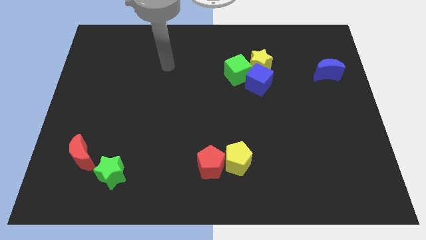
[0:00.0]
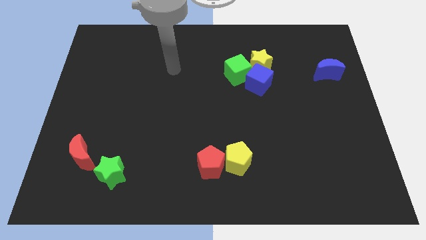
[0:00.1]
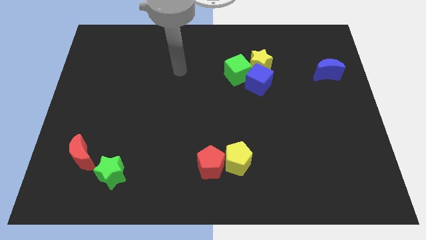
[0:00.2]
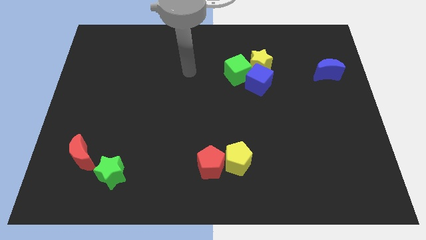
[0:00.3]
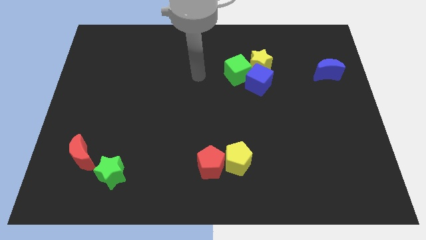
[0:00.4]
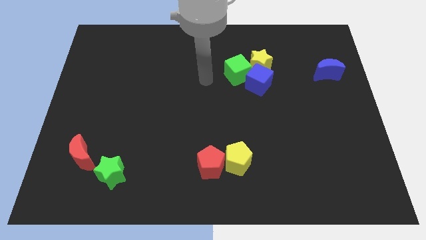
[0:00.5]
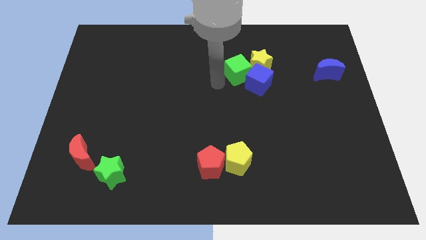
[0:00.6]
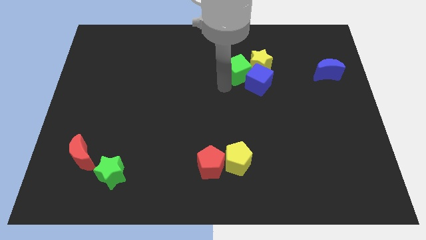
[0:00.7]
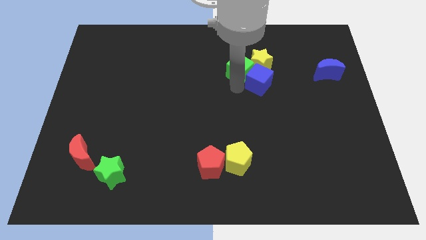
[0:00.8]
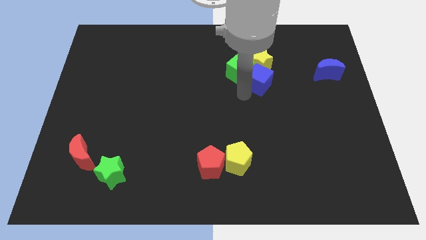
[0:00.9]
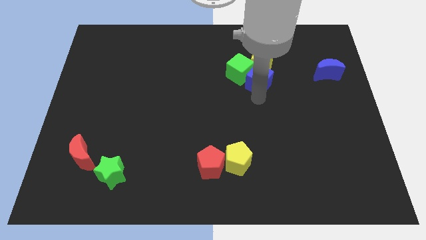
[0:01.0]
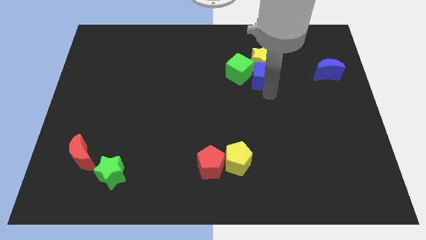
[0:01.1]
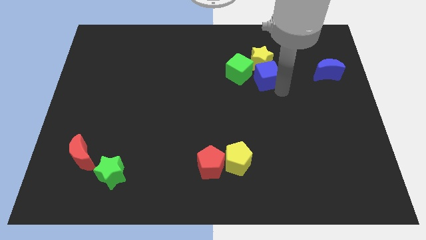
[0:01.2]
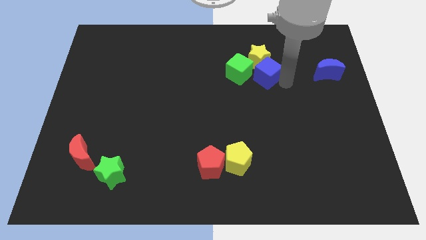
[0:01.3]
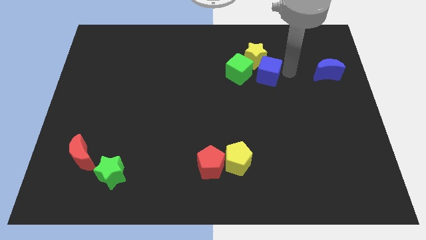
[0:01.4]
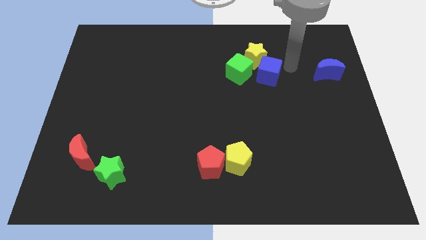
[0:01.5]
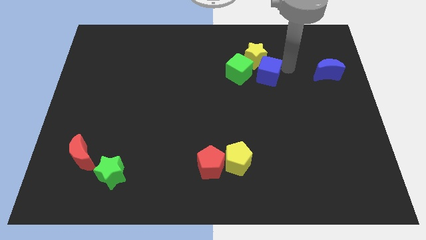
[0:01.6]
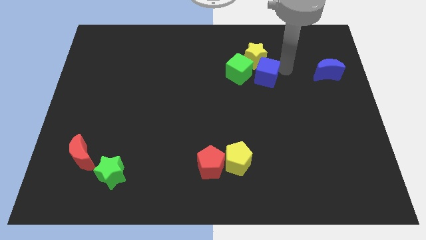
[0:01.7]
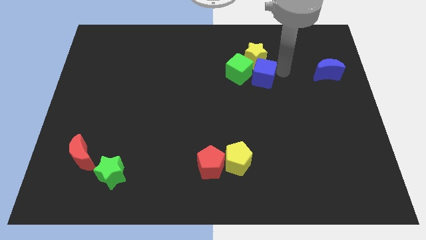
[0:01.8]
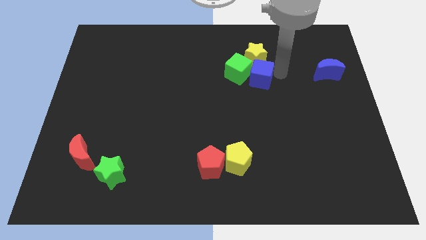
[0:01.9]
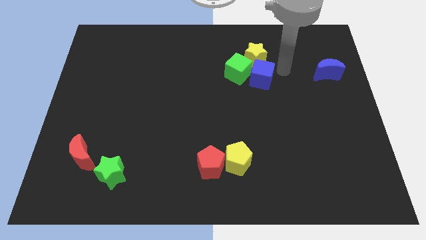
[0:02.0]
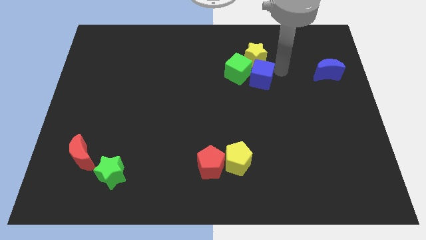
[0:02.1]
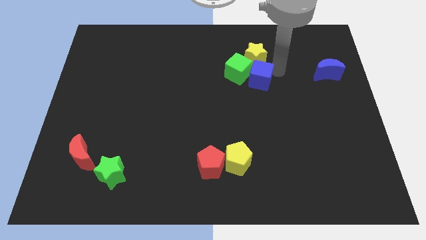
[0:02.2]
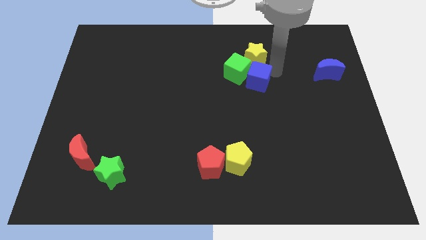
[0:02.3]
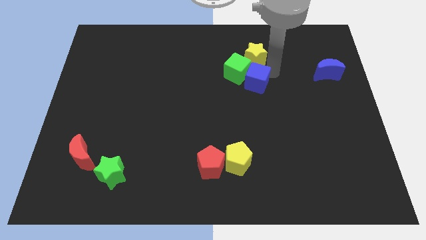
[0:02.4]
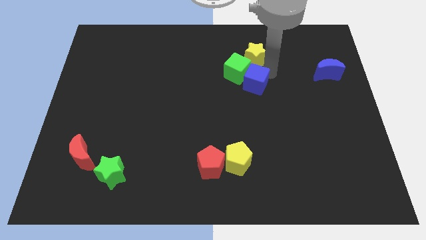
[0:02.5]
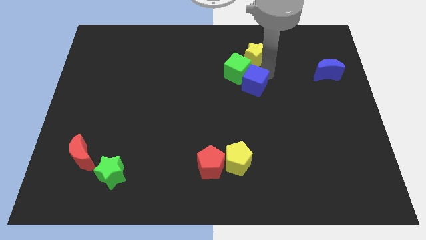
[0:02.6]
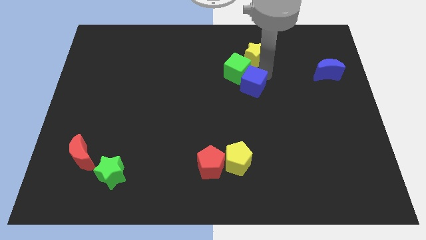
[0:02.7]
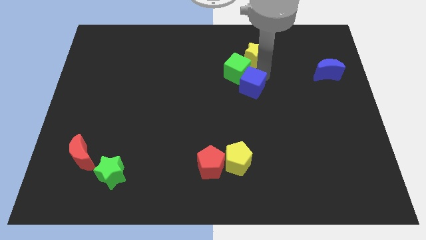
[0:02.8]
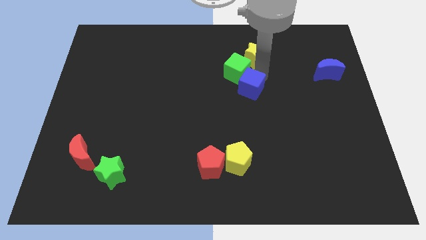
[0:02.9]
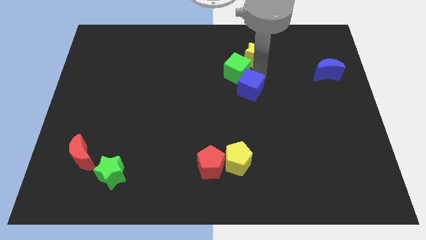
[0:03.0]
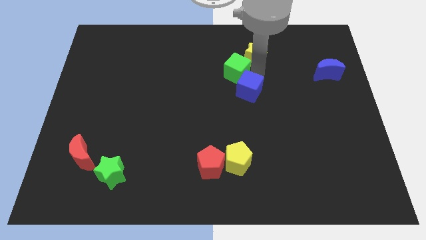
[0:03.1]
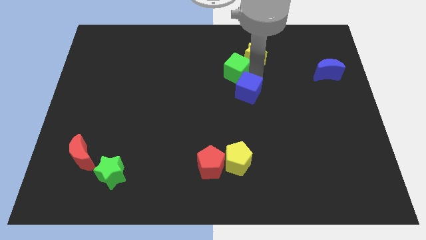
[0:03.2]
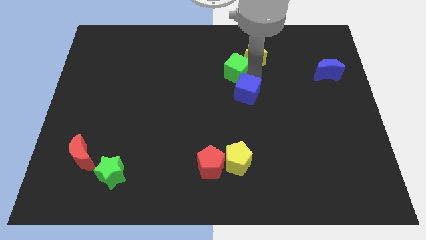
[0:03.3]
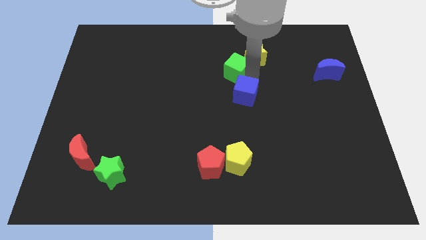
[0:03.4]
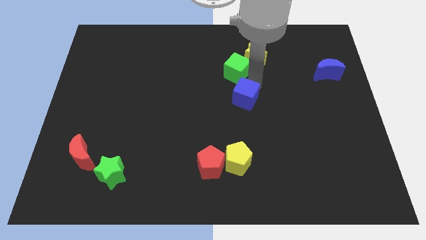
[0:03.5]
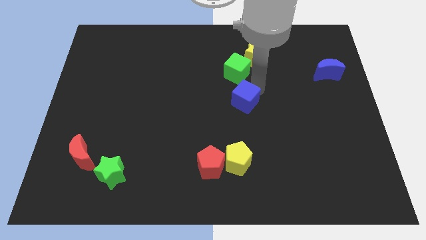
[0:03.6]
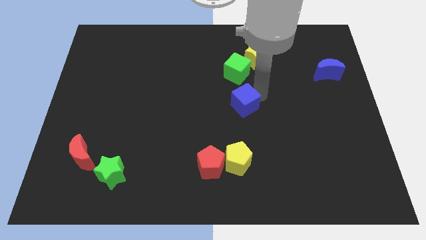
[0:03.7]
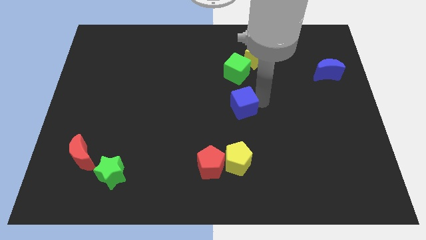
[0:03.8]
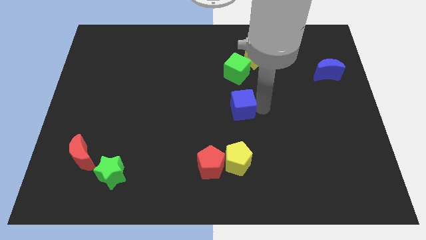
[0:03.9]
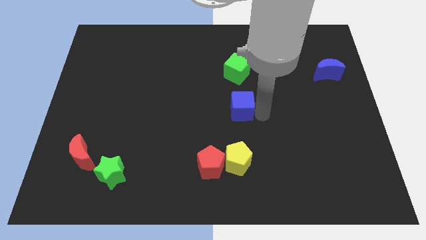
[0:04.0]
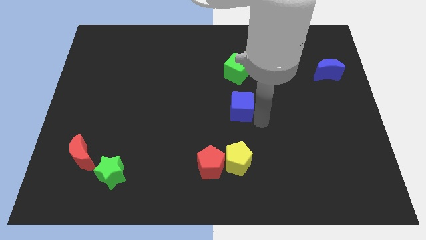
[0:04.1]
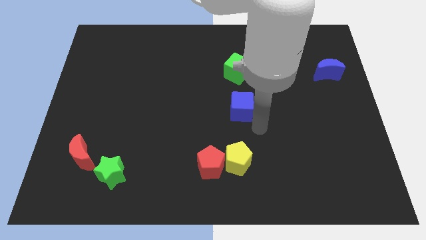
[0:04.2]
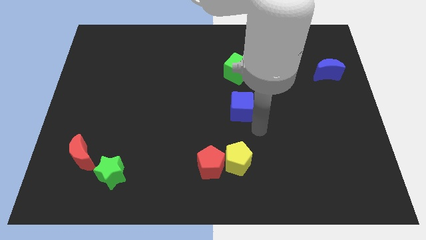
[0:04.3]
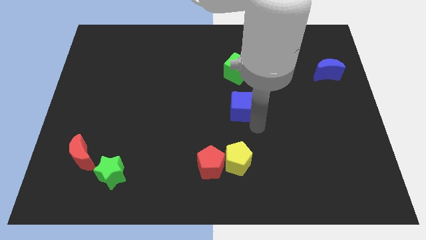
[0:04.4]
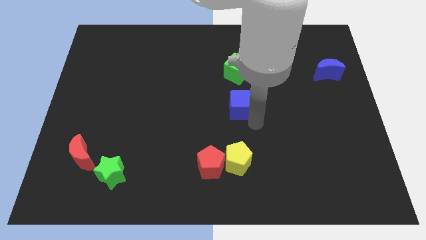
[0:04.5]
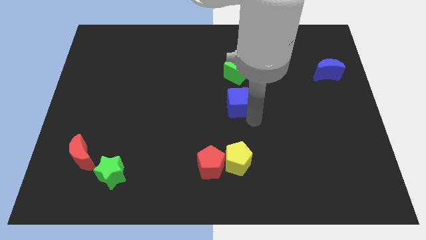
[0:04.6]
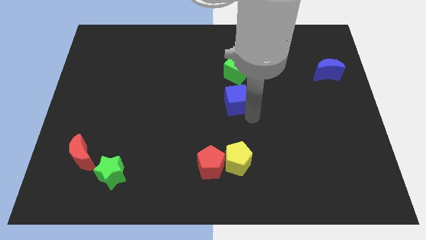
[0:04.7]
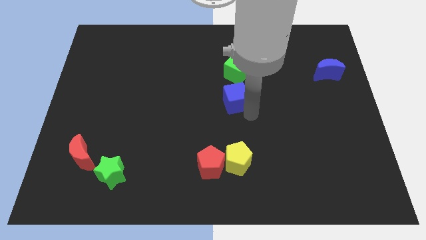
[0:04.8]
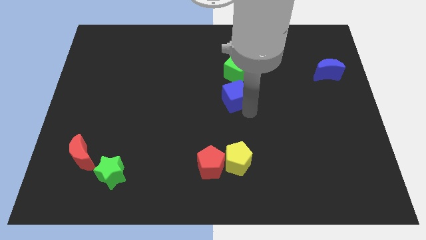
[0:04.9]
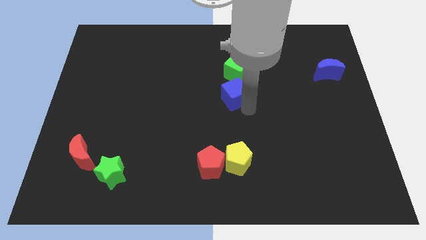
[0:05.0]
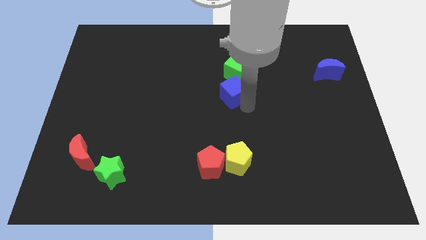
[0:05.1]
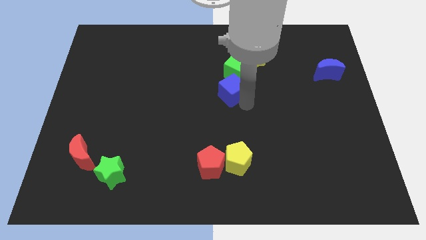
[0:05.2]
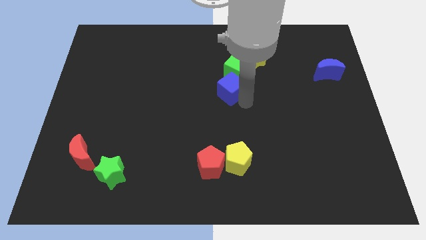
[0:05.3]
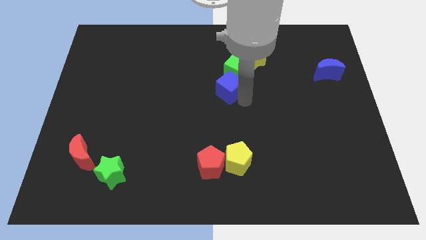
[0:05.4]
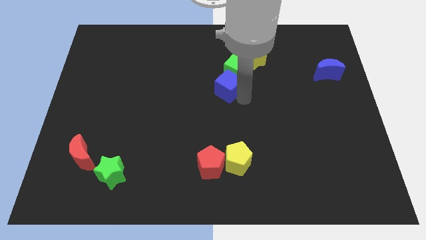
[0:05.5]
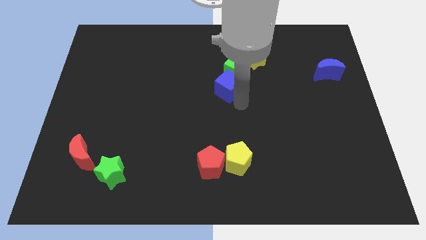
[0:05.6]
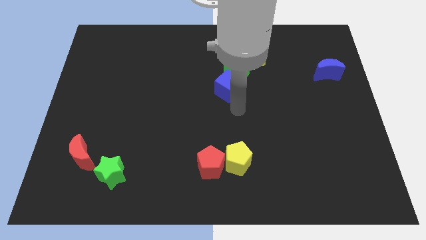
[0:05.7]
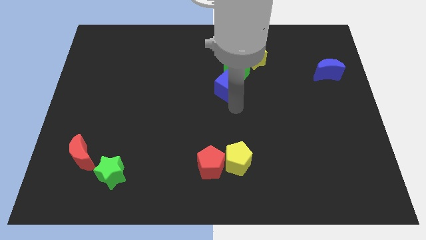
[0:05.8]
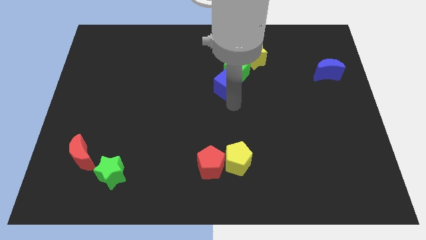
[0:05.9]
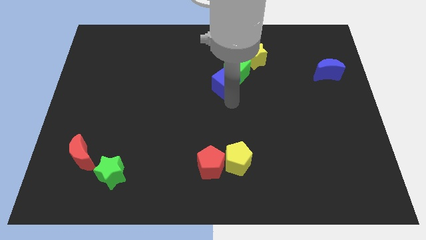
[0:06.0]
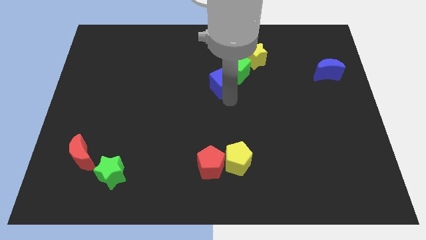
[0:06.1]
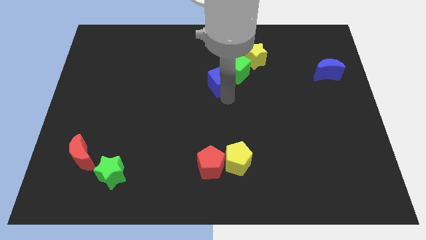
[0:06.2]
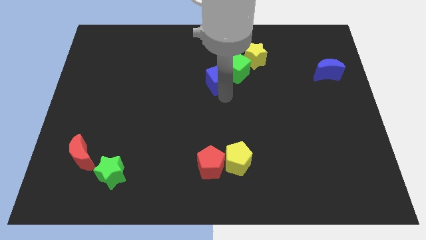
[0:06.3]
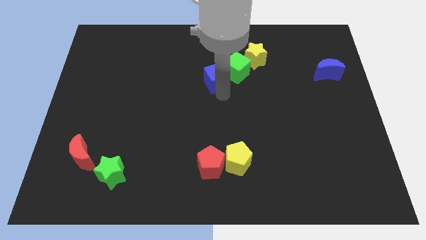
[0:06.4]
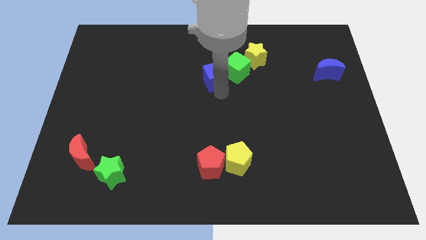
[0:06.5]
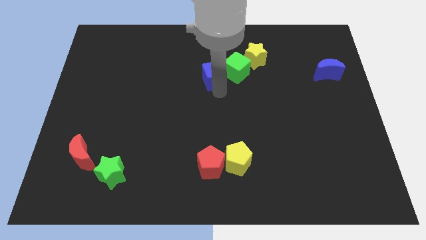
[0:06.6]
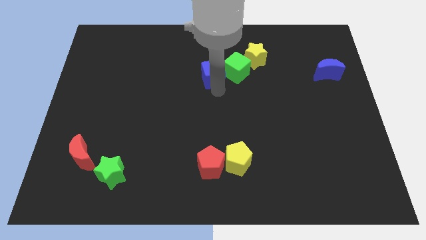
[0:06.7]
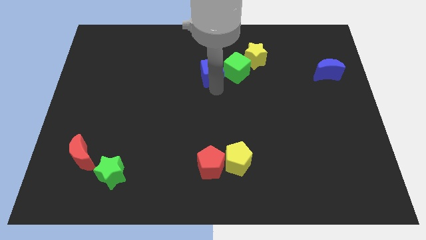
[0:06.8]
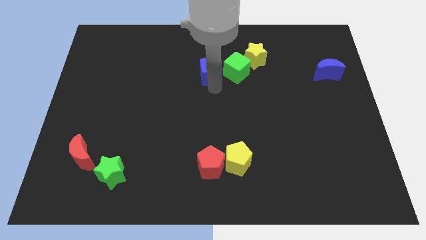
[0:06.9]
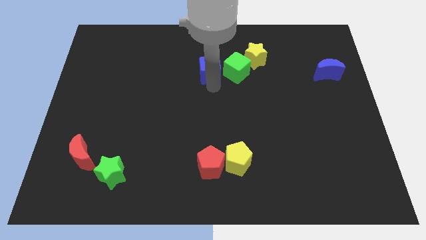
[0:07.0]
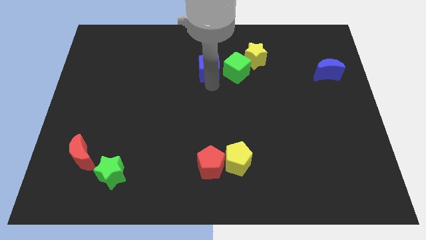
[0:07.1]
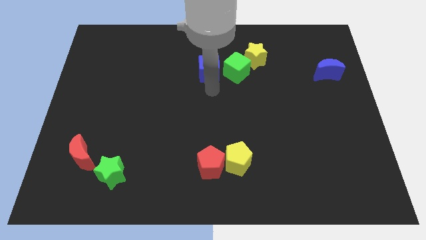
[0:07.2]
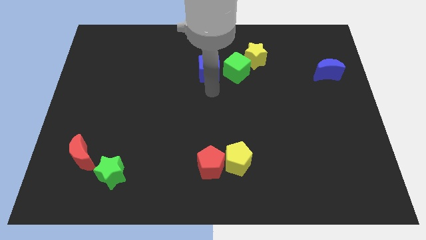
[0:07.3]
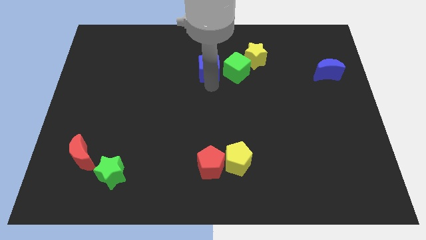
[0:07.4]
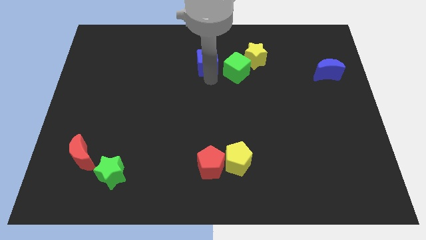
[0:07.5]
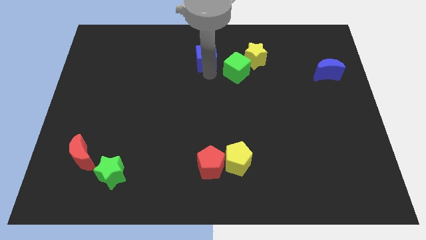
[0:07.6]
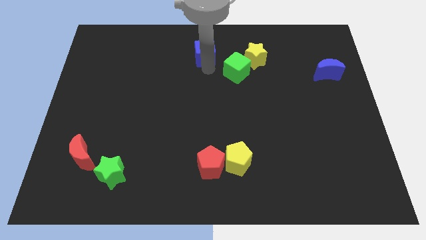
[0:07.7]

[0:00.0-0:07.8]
move the blue cube to the top side
